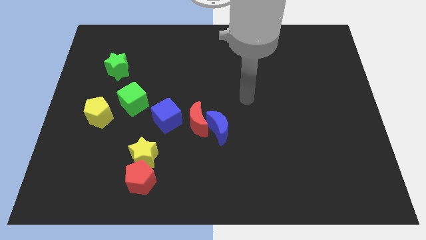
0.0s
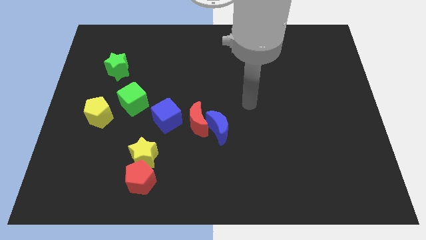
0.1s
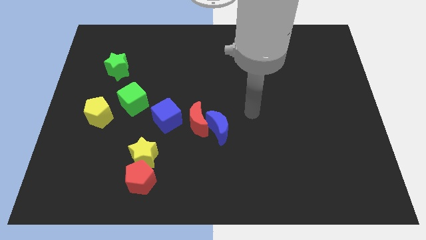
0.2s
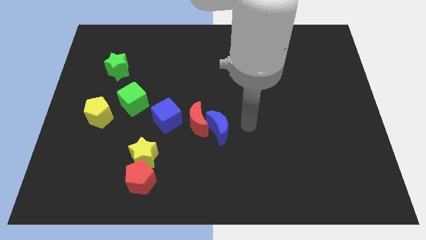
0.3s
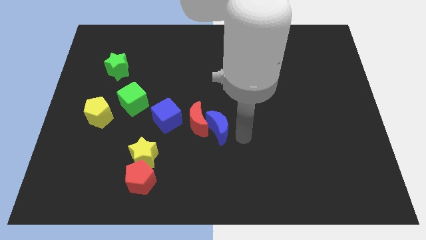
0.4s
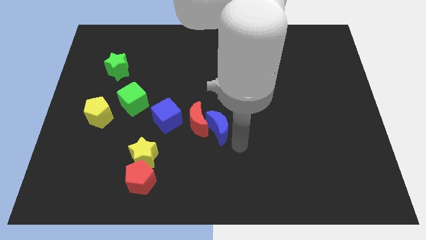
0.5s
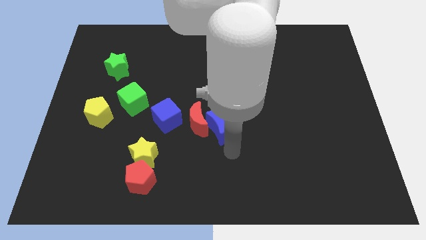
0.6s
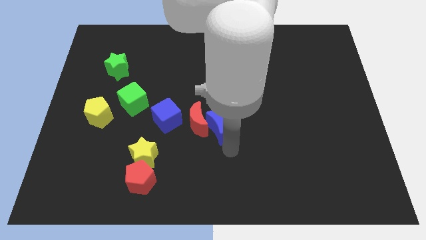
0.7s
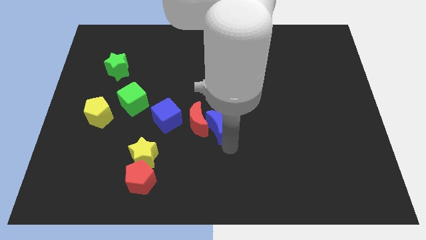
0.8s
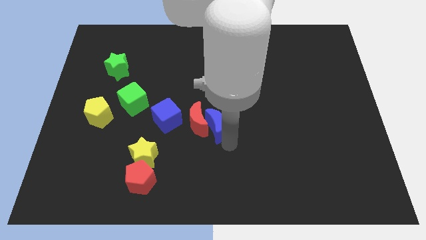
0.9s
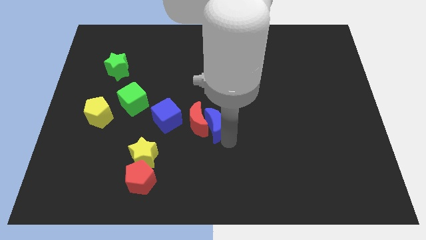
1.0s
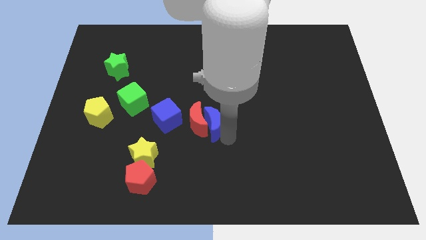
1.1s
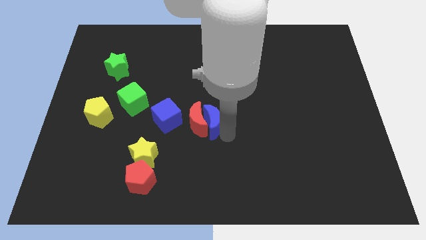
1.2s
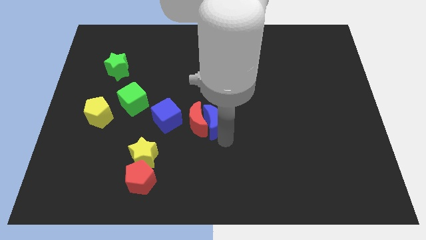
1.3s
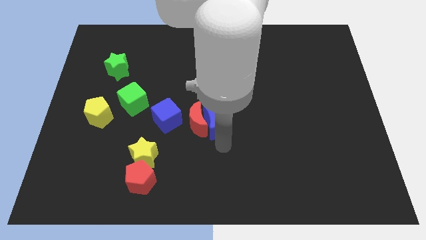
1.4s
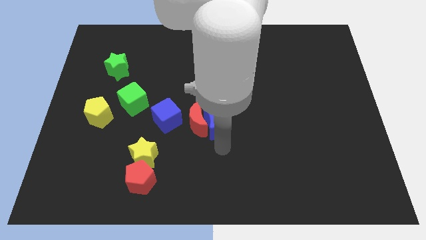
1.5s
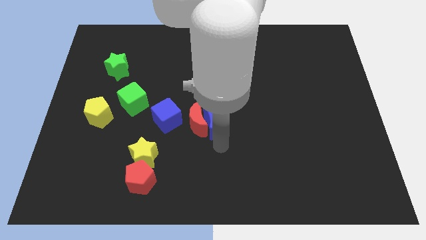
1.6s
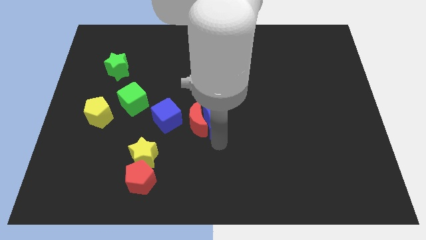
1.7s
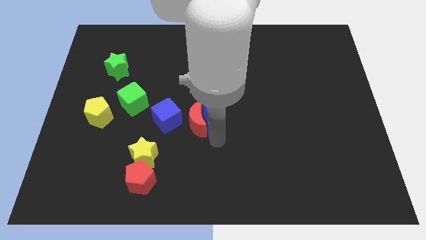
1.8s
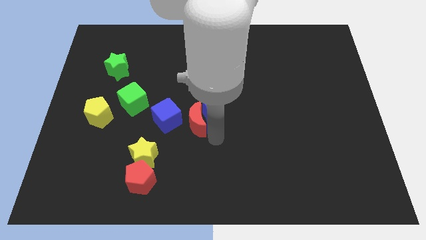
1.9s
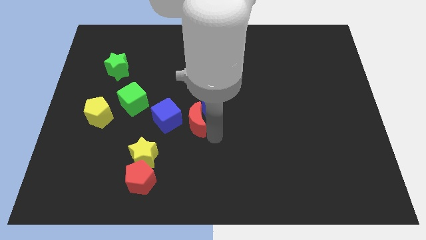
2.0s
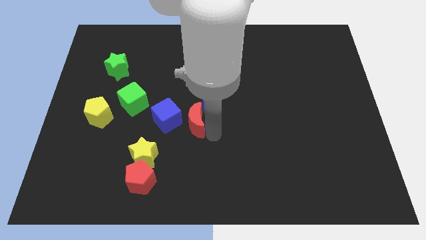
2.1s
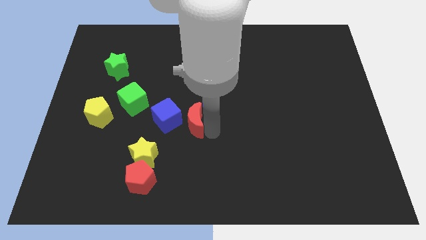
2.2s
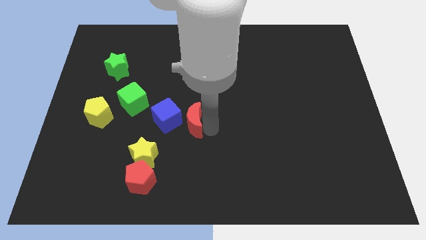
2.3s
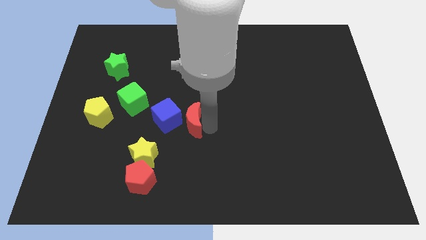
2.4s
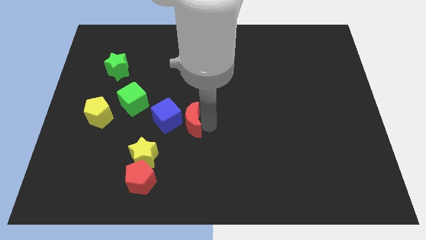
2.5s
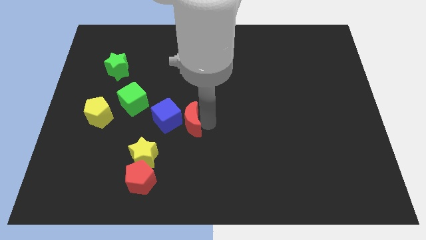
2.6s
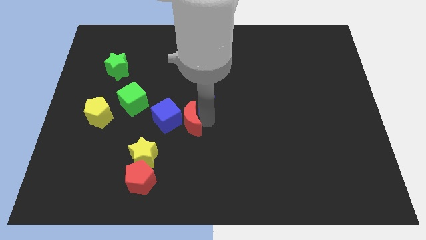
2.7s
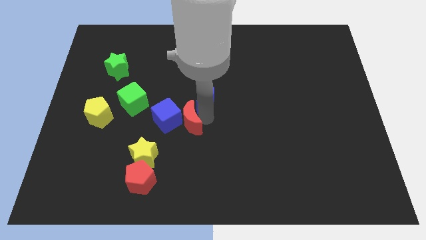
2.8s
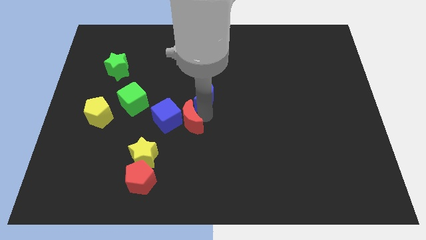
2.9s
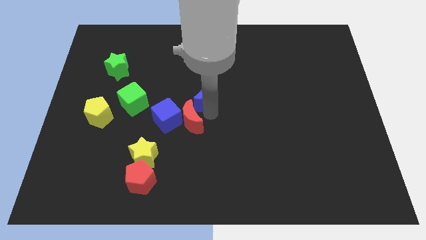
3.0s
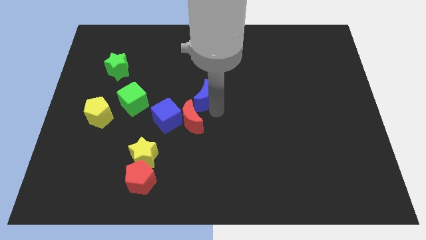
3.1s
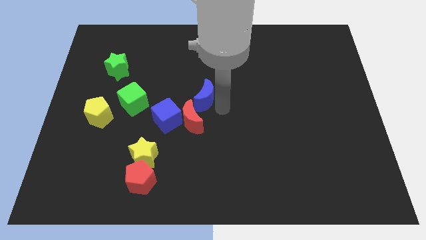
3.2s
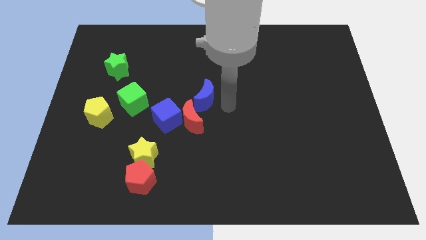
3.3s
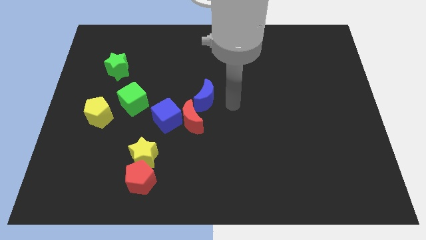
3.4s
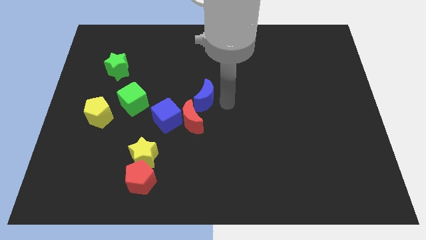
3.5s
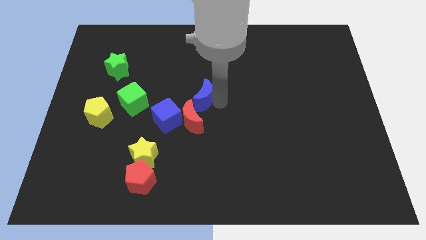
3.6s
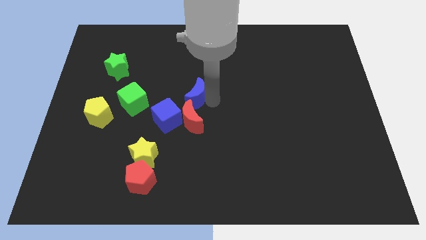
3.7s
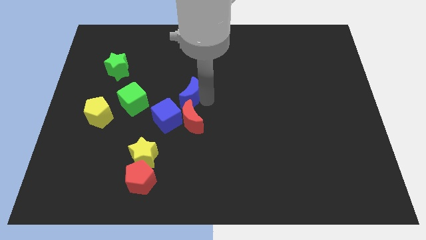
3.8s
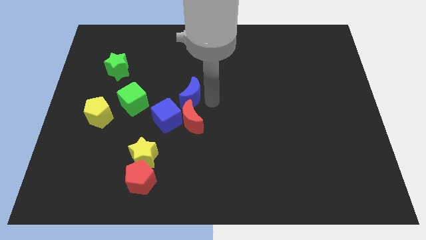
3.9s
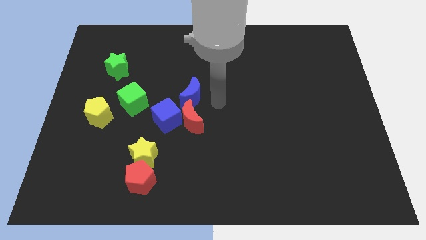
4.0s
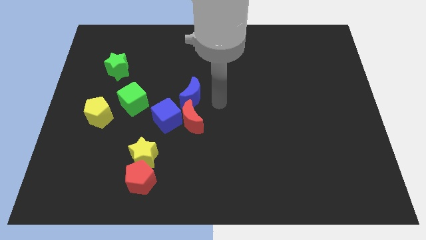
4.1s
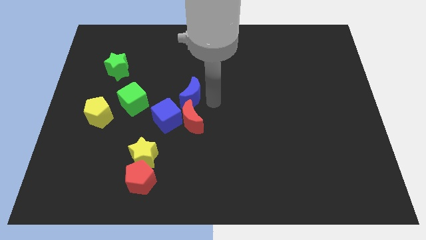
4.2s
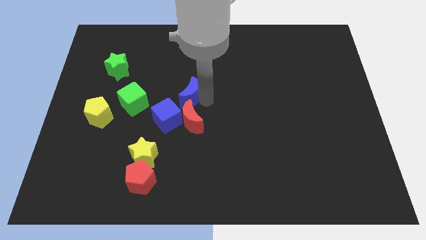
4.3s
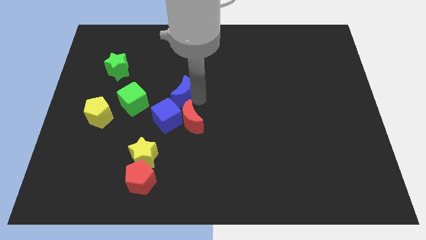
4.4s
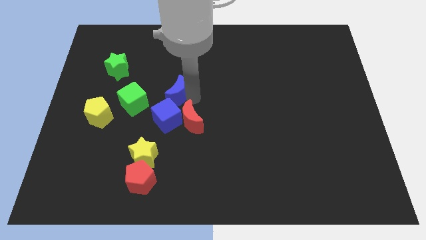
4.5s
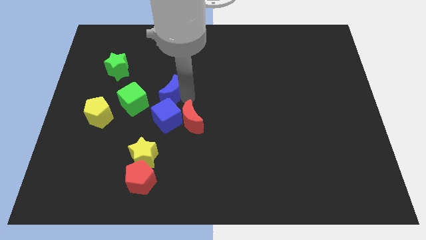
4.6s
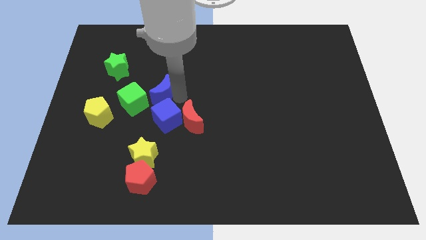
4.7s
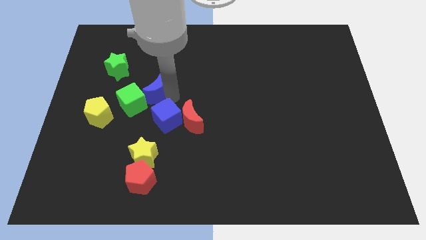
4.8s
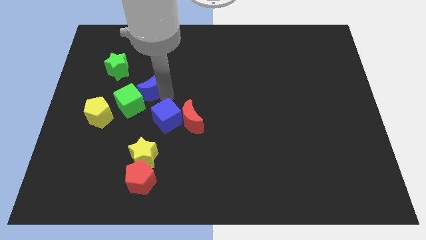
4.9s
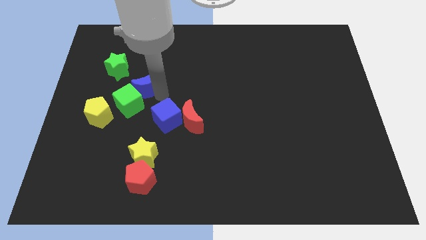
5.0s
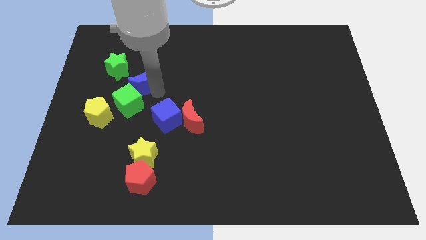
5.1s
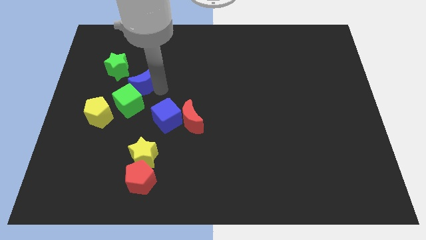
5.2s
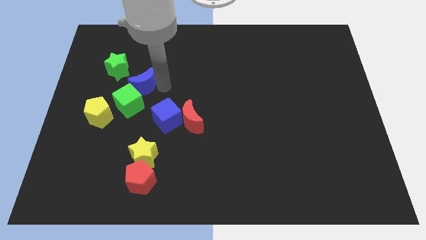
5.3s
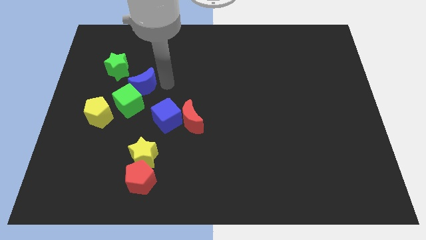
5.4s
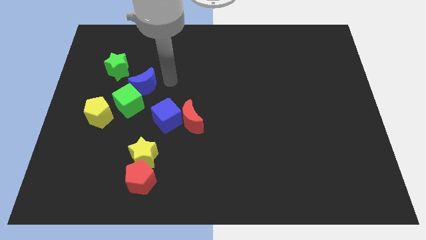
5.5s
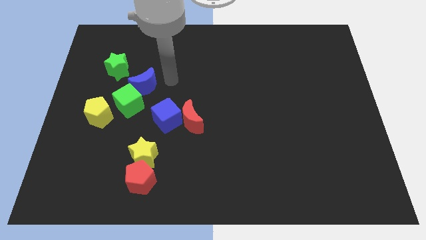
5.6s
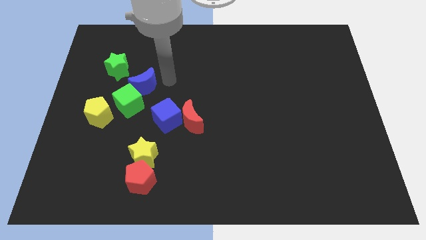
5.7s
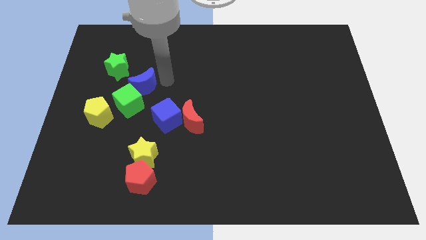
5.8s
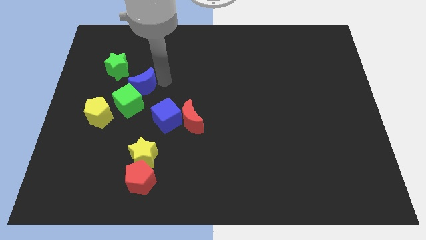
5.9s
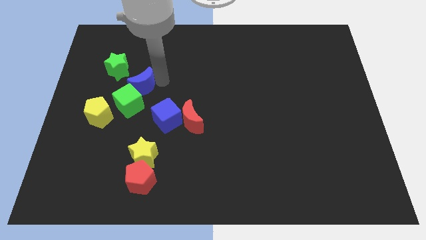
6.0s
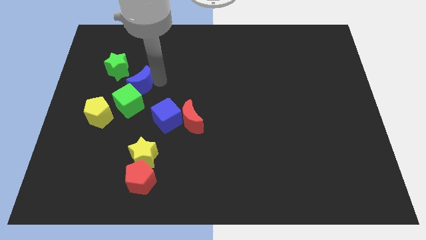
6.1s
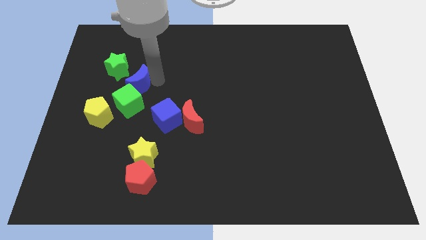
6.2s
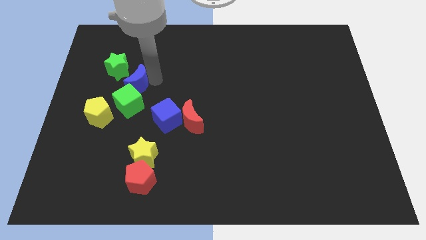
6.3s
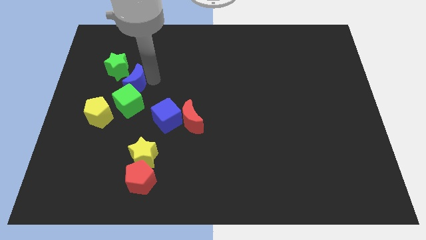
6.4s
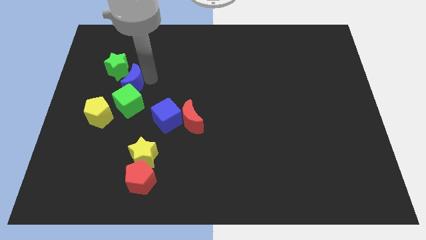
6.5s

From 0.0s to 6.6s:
slide the blue moon to the bottom of the green star

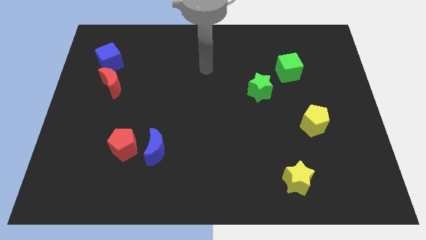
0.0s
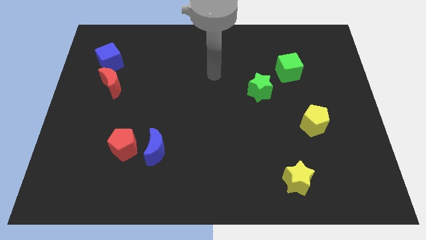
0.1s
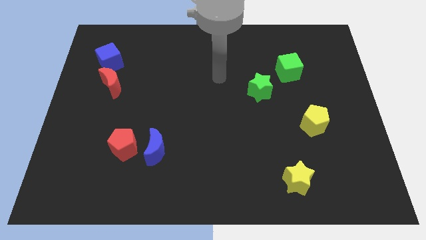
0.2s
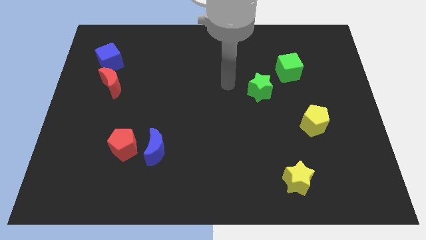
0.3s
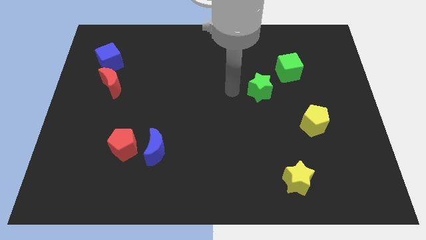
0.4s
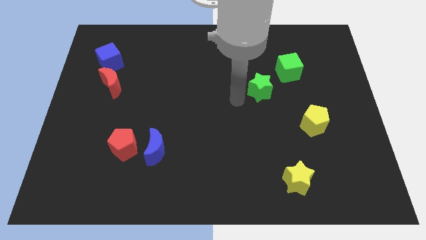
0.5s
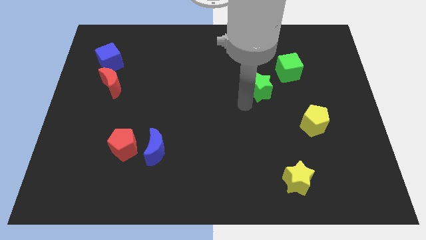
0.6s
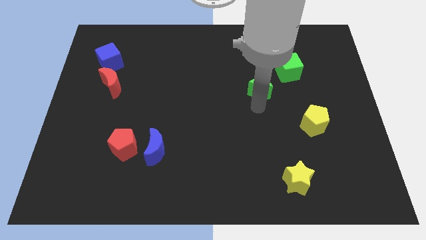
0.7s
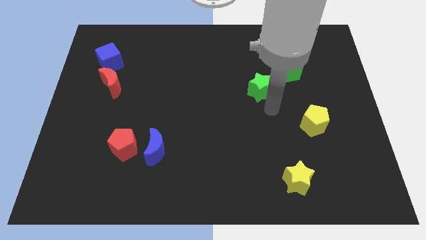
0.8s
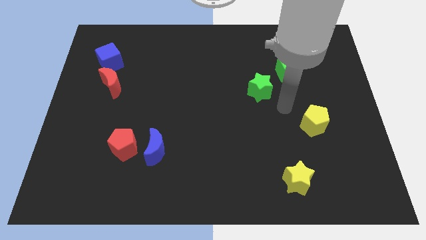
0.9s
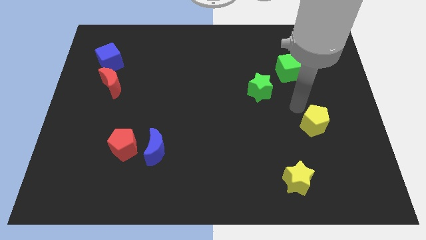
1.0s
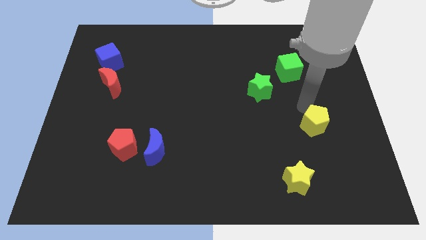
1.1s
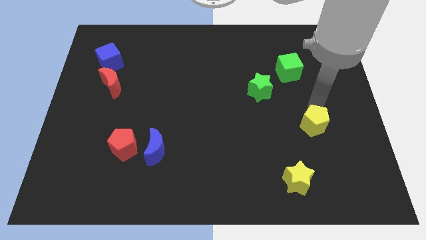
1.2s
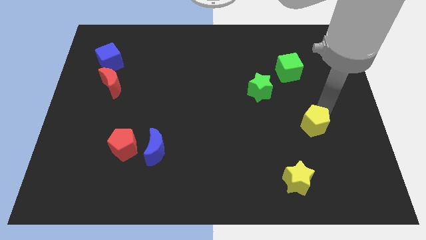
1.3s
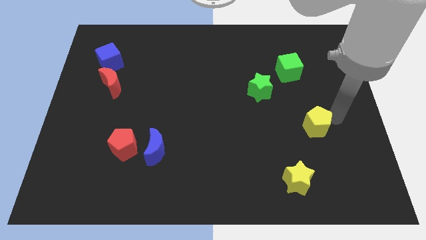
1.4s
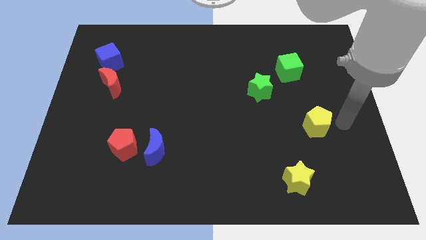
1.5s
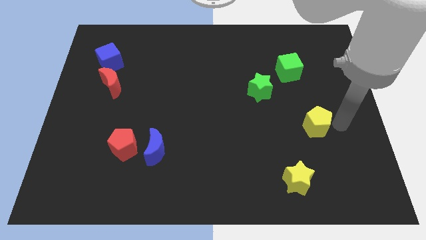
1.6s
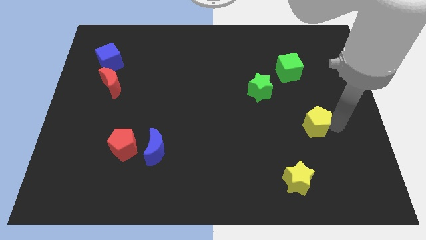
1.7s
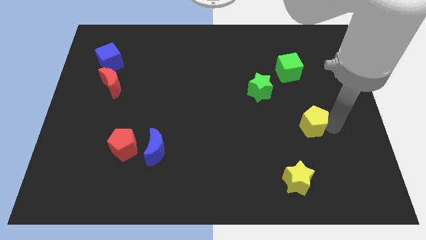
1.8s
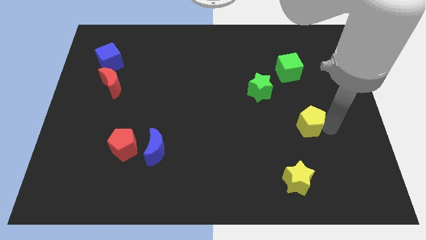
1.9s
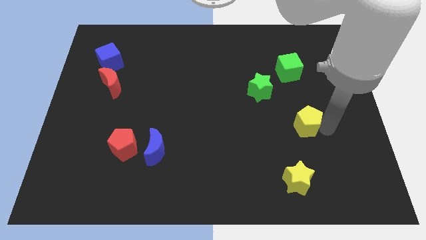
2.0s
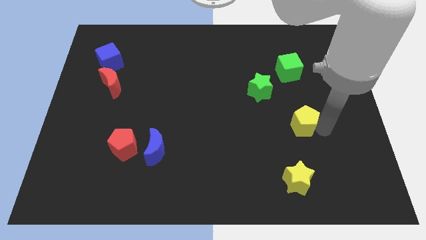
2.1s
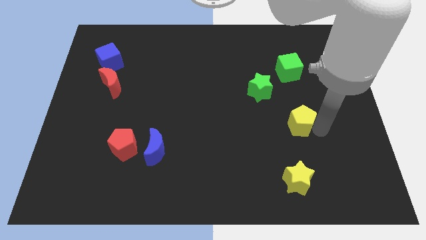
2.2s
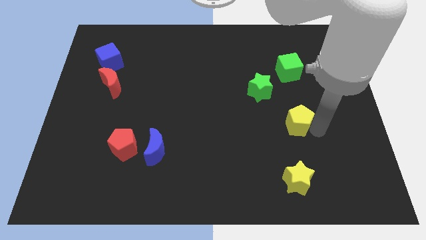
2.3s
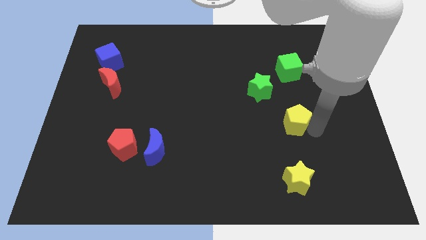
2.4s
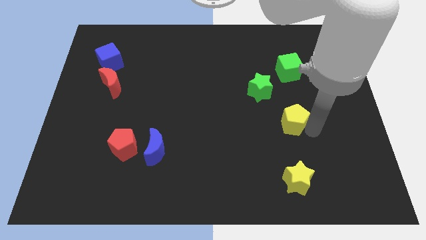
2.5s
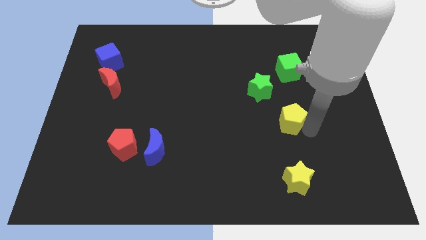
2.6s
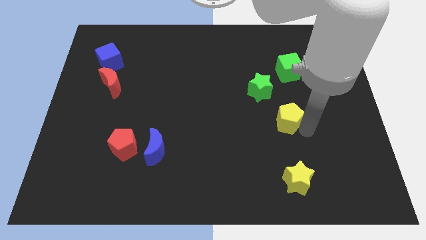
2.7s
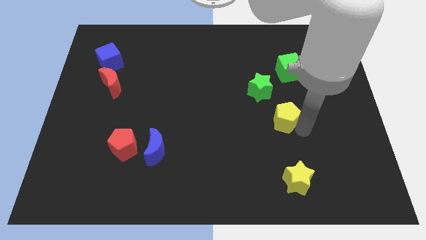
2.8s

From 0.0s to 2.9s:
move the yellow pentagon to the bottom side of the green star
